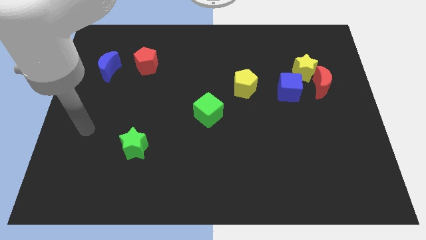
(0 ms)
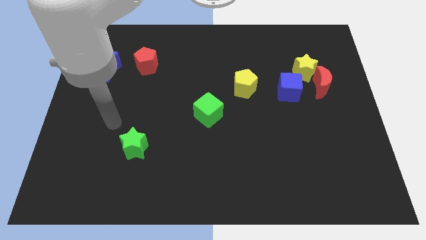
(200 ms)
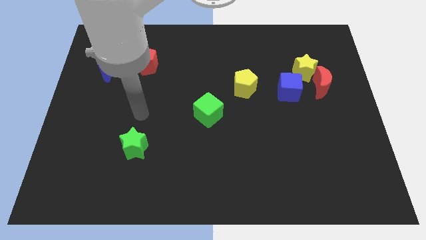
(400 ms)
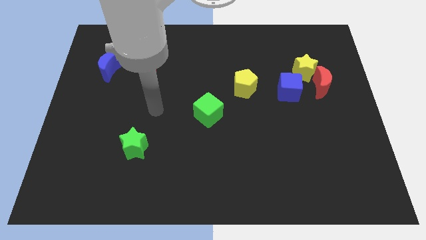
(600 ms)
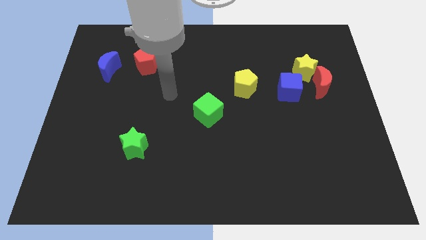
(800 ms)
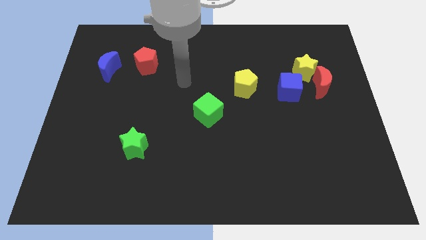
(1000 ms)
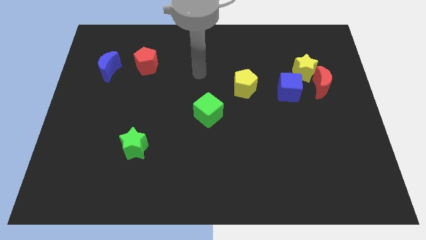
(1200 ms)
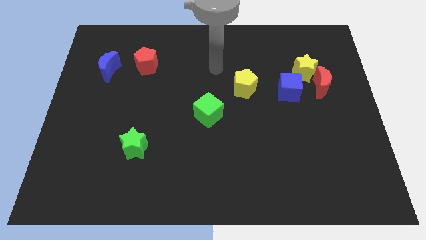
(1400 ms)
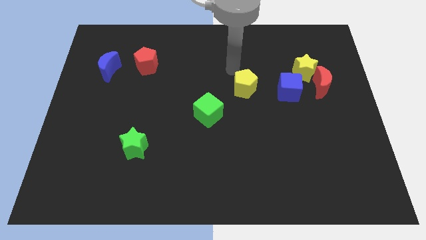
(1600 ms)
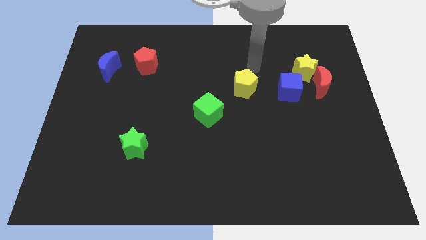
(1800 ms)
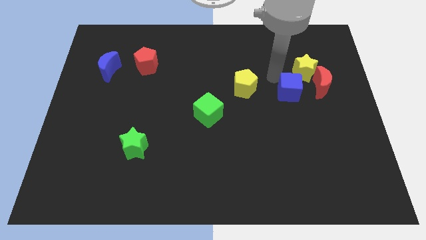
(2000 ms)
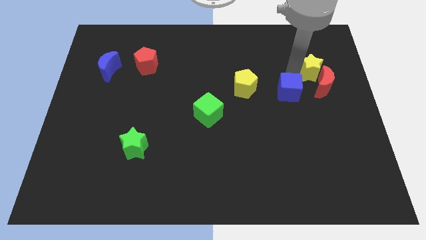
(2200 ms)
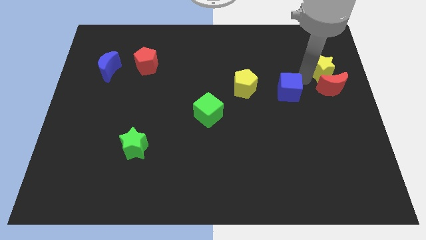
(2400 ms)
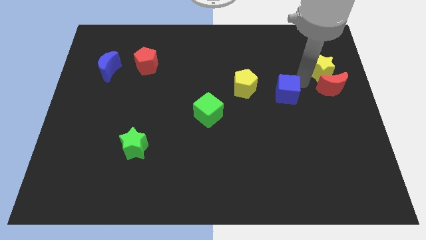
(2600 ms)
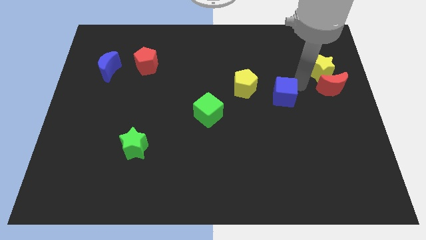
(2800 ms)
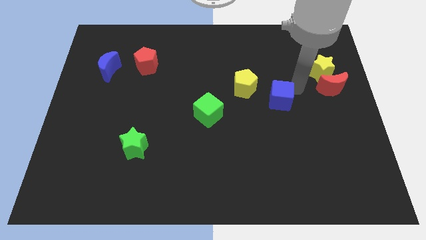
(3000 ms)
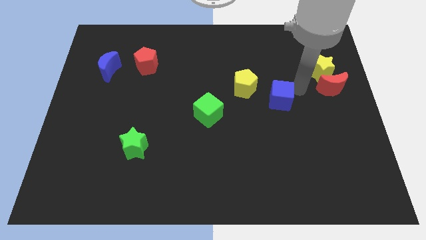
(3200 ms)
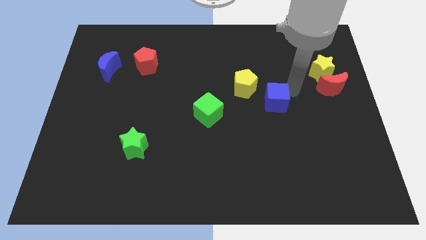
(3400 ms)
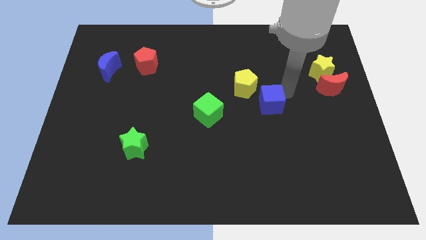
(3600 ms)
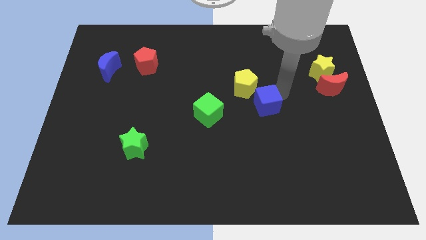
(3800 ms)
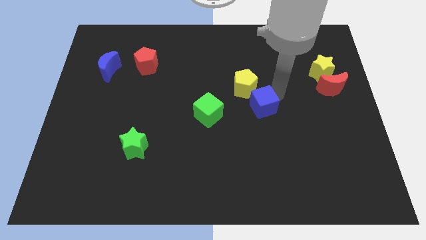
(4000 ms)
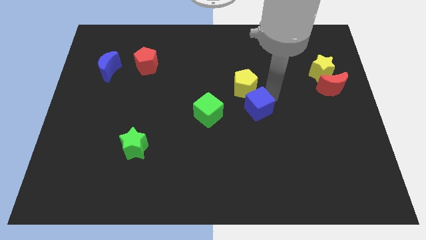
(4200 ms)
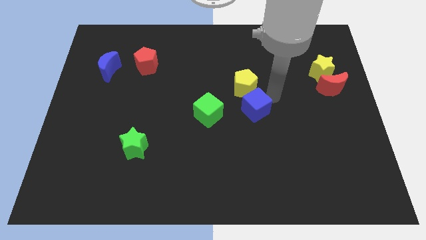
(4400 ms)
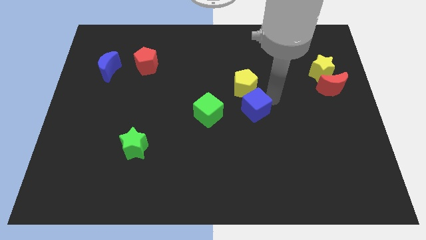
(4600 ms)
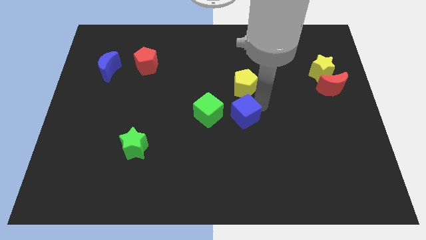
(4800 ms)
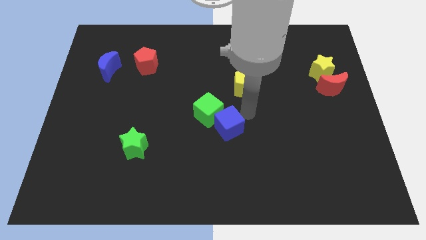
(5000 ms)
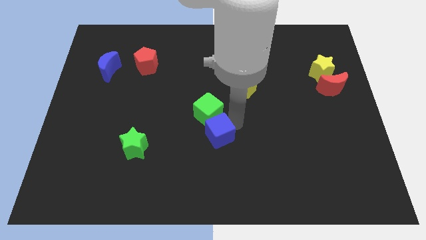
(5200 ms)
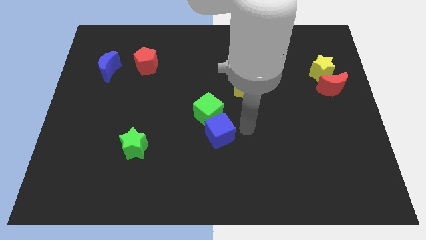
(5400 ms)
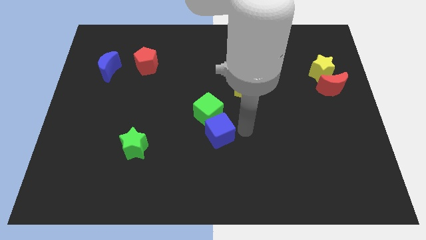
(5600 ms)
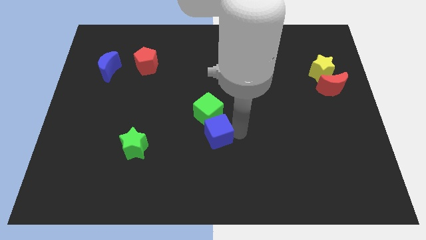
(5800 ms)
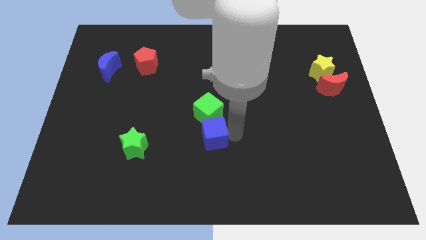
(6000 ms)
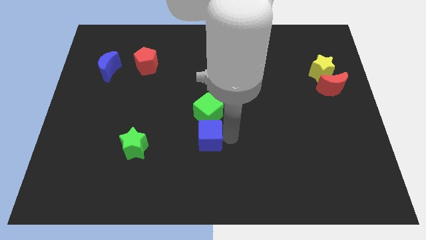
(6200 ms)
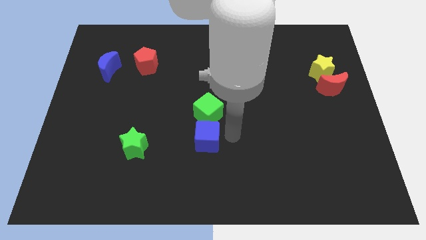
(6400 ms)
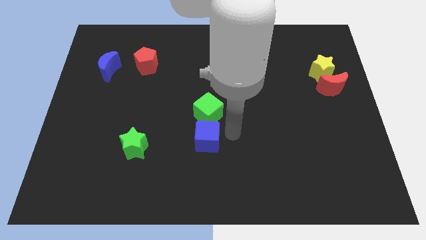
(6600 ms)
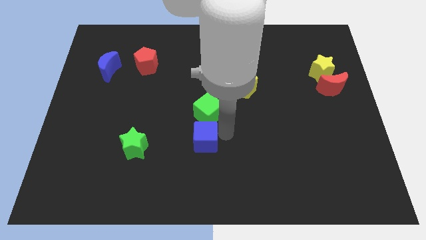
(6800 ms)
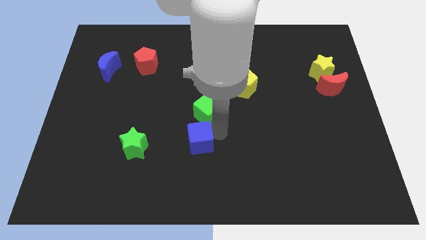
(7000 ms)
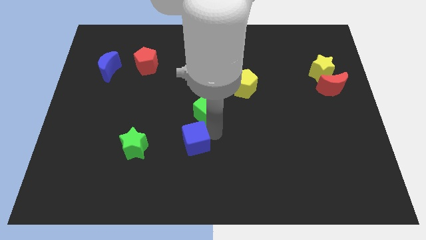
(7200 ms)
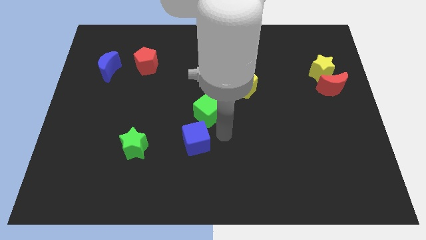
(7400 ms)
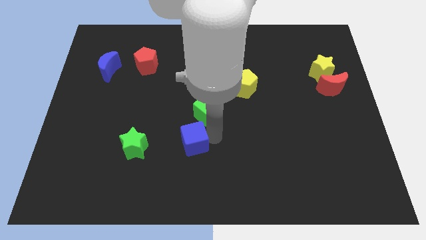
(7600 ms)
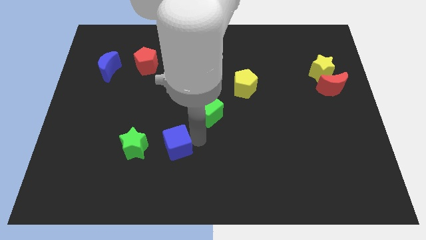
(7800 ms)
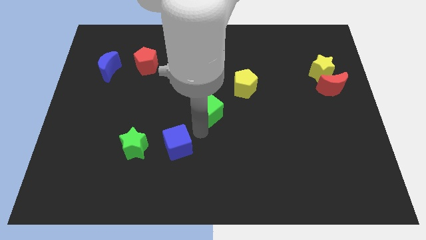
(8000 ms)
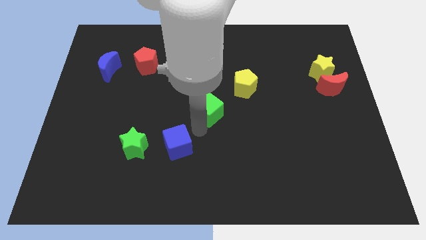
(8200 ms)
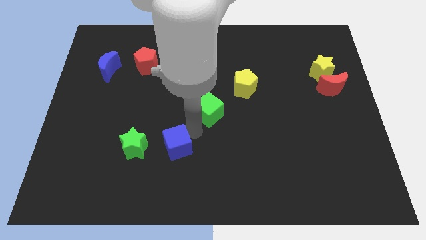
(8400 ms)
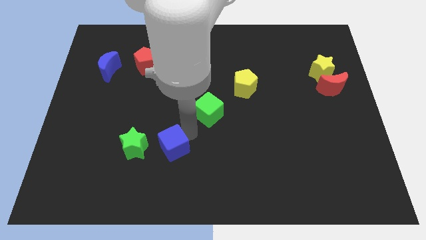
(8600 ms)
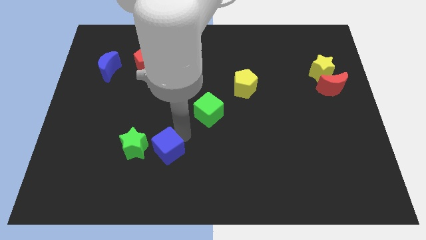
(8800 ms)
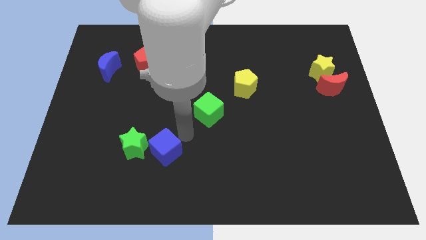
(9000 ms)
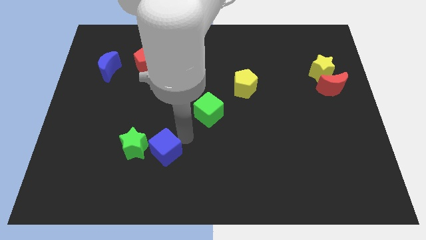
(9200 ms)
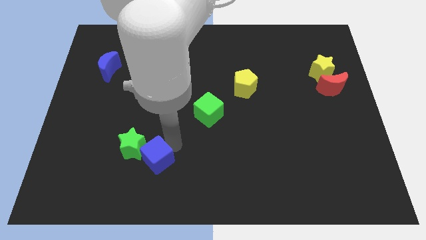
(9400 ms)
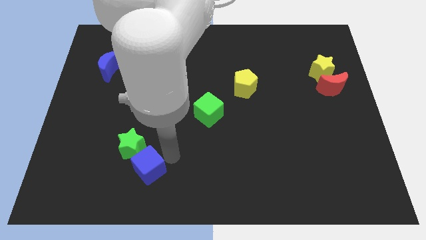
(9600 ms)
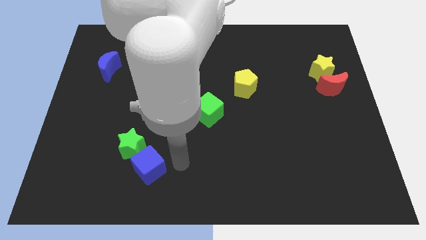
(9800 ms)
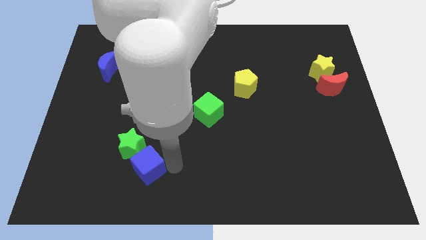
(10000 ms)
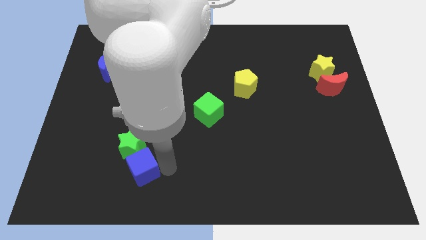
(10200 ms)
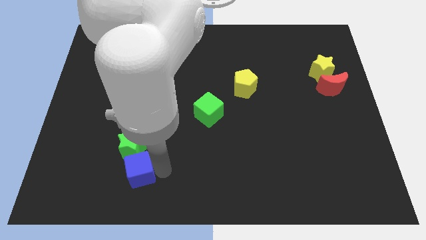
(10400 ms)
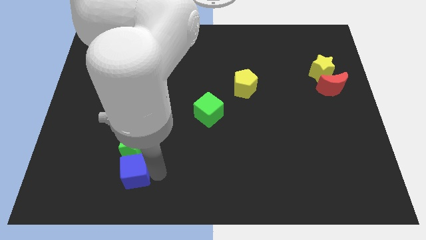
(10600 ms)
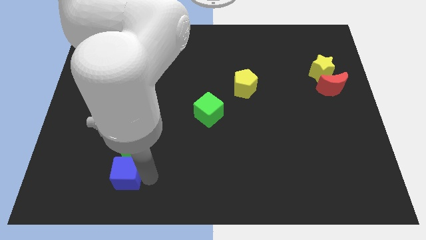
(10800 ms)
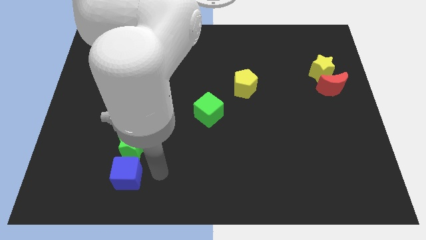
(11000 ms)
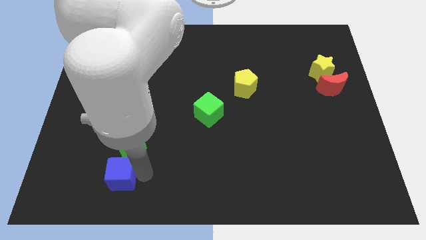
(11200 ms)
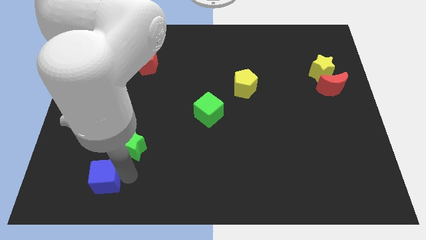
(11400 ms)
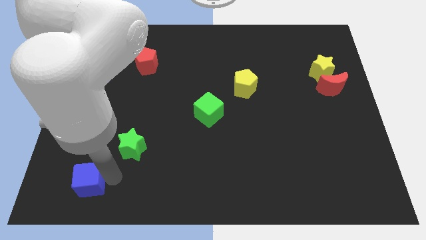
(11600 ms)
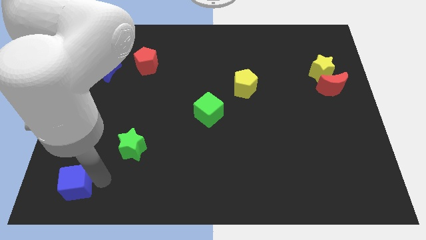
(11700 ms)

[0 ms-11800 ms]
move the blue cube to the lower left corner

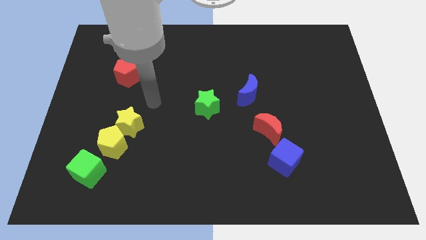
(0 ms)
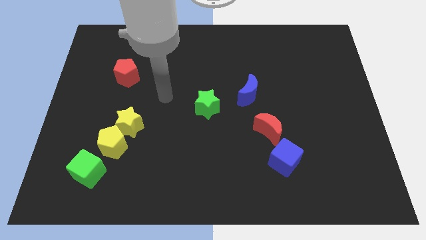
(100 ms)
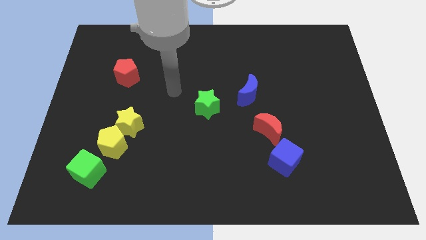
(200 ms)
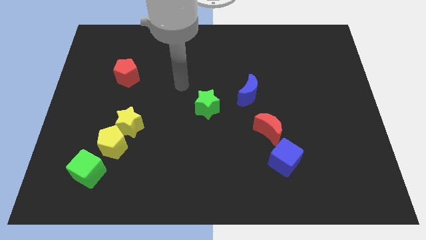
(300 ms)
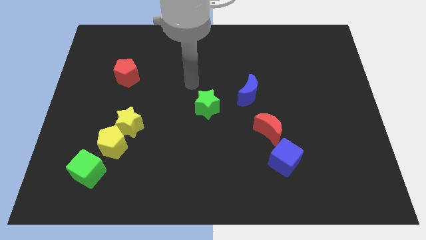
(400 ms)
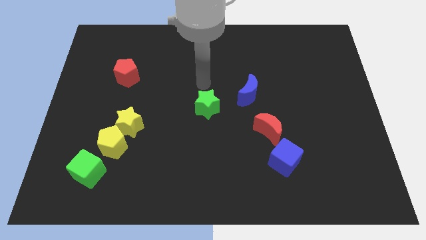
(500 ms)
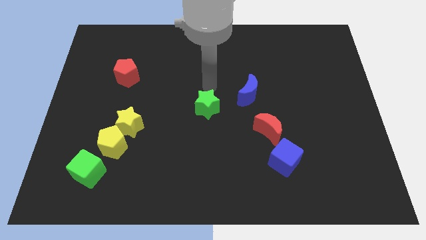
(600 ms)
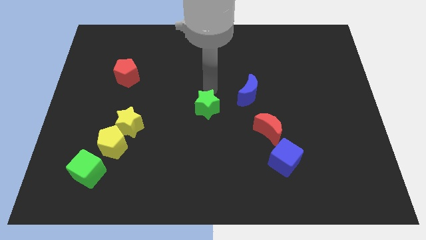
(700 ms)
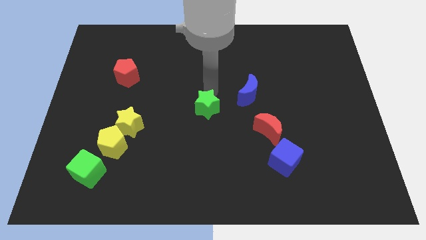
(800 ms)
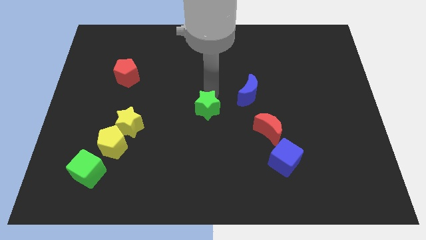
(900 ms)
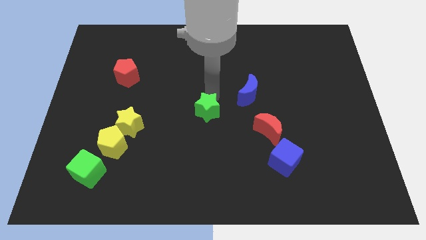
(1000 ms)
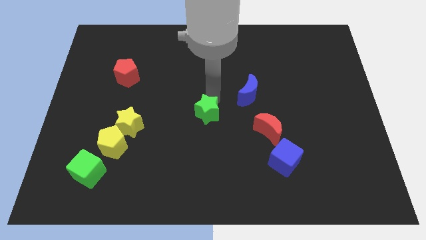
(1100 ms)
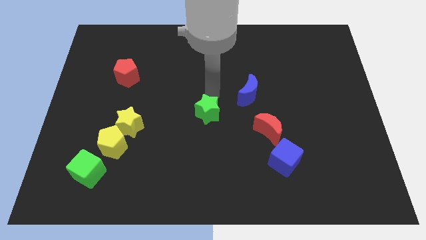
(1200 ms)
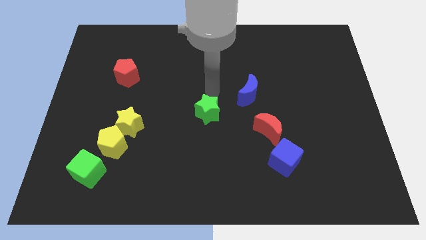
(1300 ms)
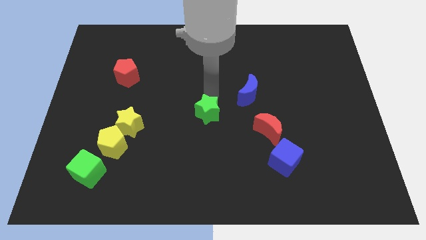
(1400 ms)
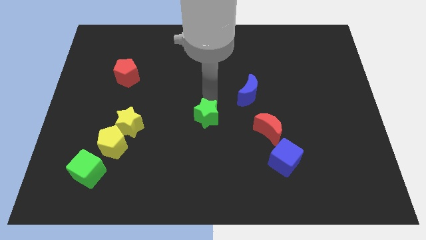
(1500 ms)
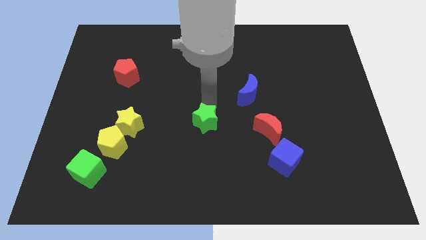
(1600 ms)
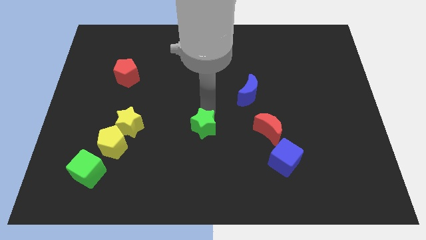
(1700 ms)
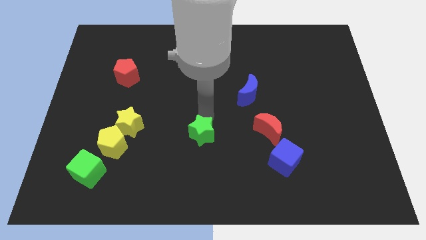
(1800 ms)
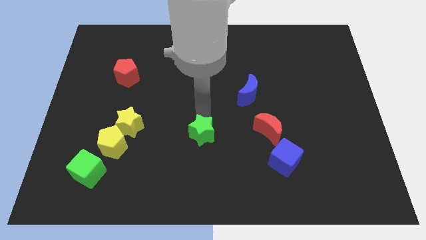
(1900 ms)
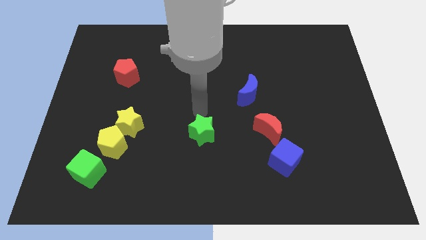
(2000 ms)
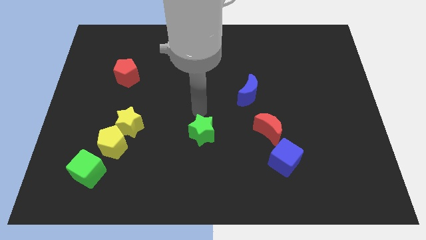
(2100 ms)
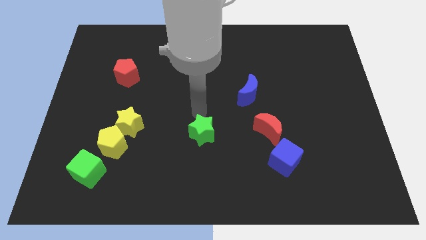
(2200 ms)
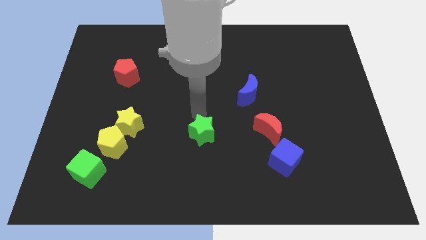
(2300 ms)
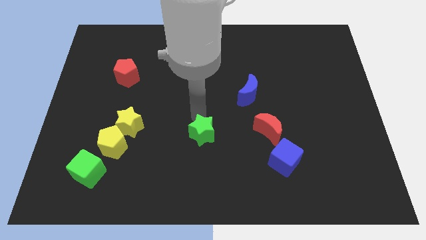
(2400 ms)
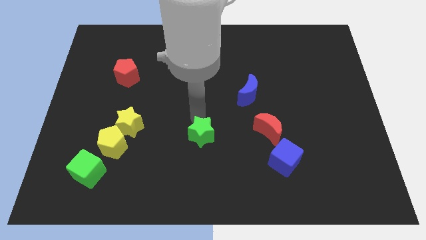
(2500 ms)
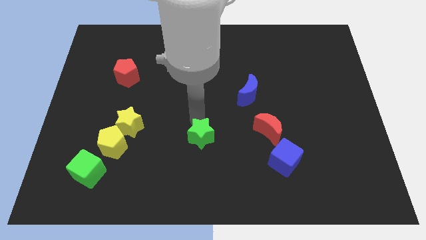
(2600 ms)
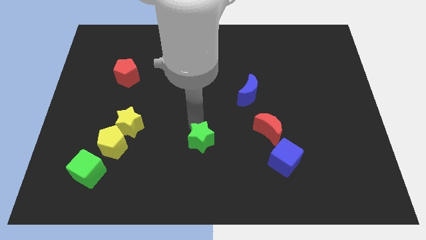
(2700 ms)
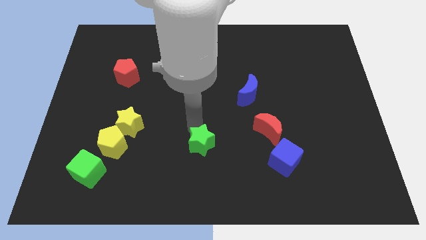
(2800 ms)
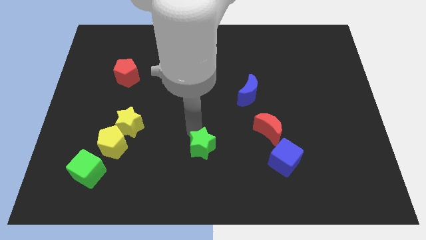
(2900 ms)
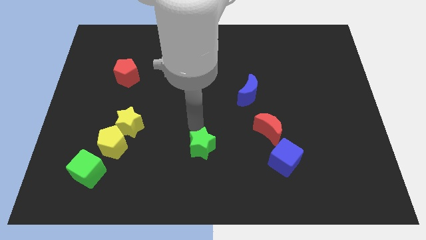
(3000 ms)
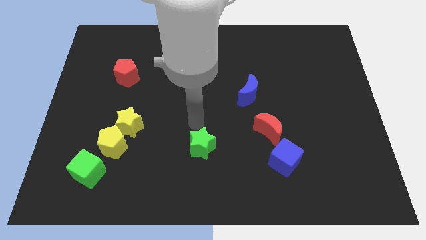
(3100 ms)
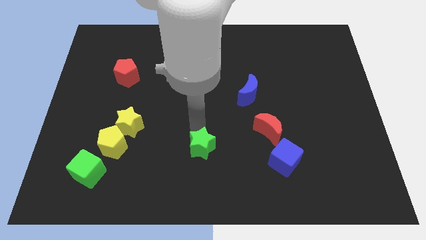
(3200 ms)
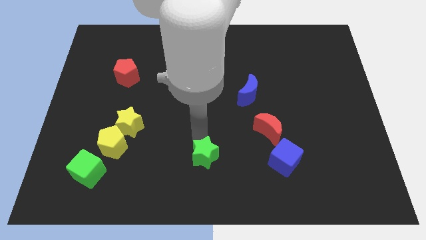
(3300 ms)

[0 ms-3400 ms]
move the green star to the bottom side
